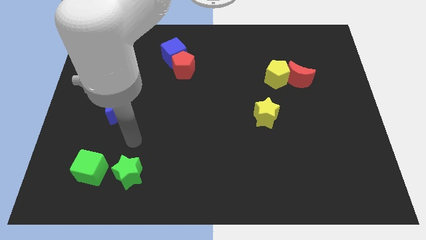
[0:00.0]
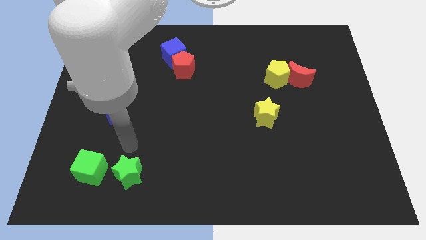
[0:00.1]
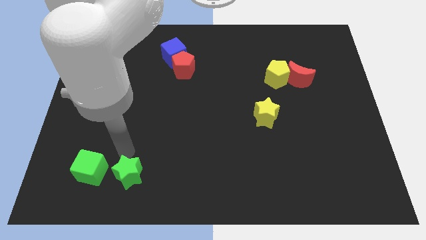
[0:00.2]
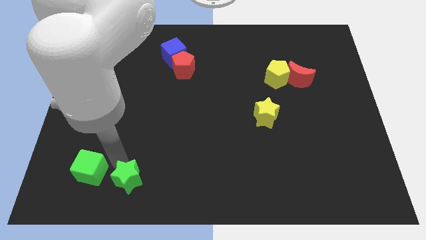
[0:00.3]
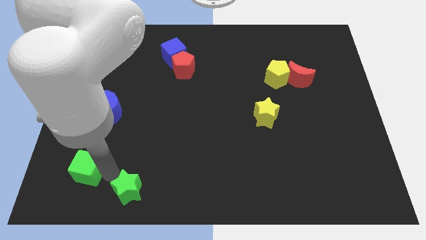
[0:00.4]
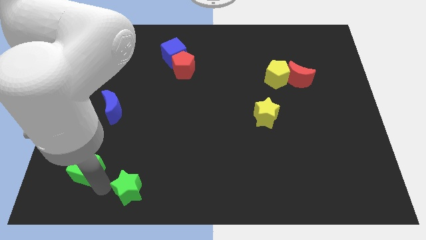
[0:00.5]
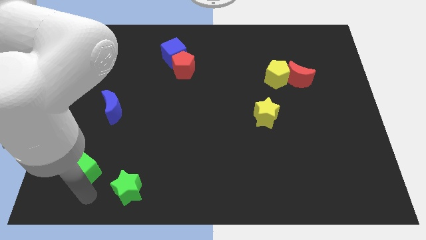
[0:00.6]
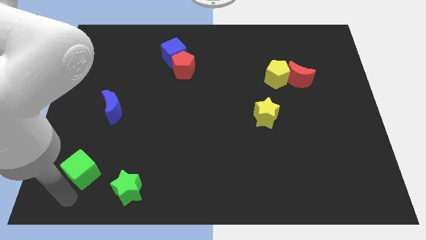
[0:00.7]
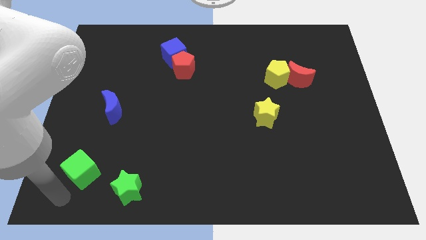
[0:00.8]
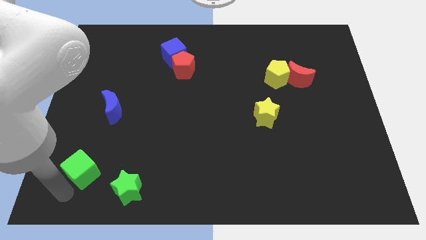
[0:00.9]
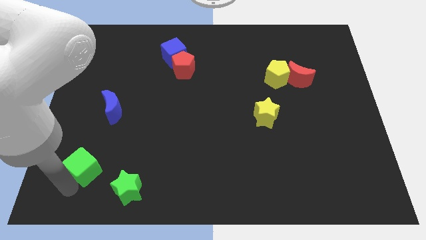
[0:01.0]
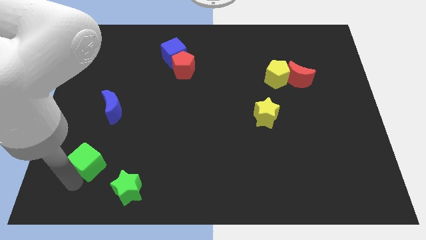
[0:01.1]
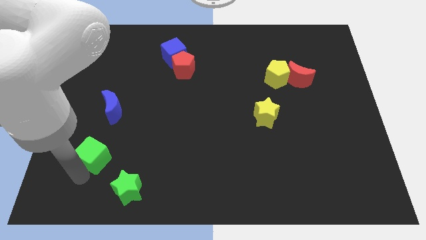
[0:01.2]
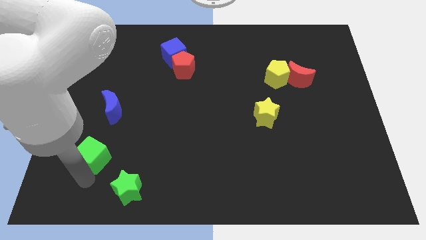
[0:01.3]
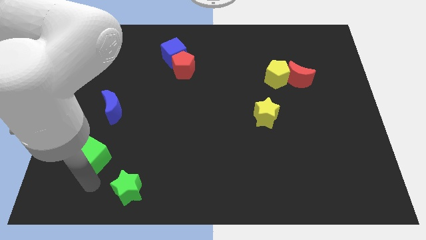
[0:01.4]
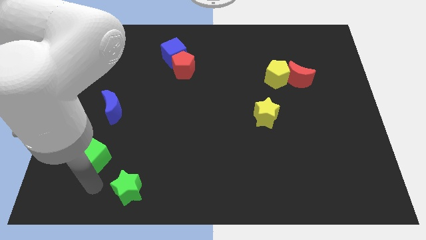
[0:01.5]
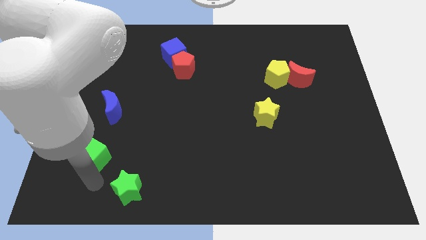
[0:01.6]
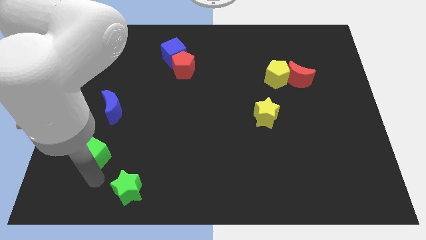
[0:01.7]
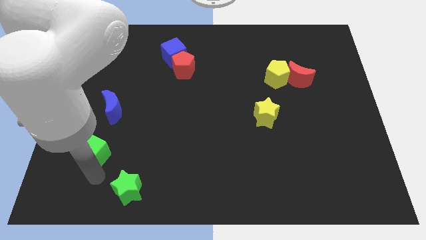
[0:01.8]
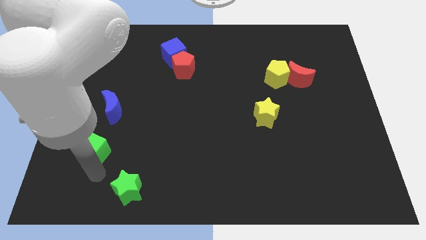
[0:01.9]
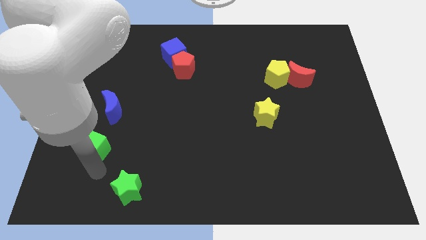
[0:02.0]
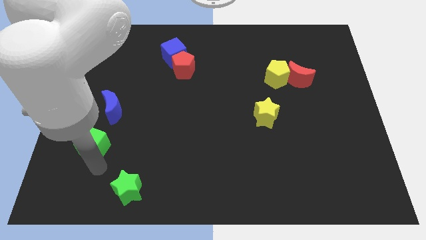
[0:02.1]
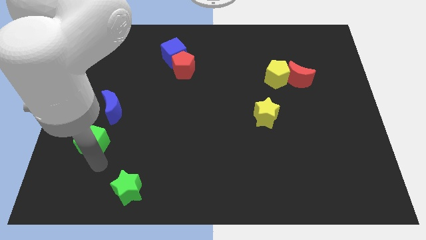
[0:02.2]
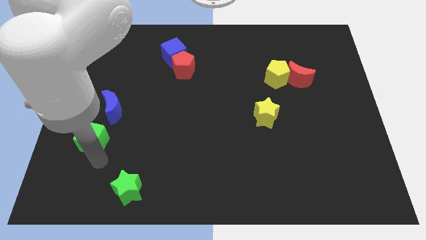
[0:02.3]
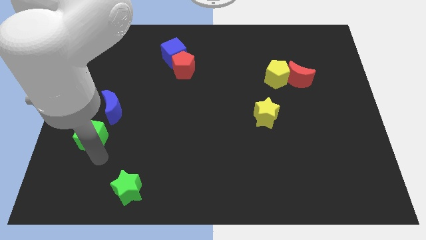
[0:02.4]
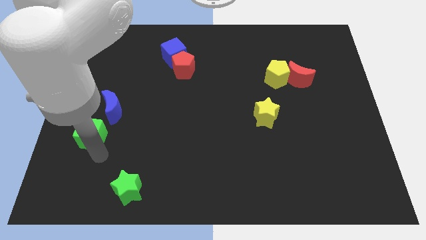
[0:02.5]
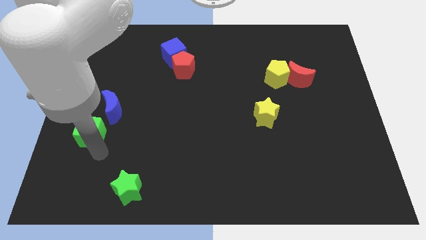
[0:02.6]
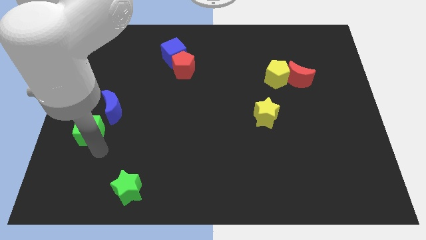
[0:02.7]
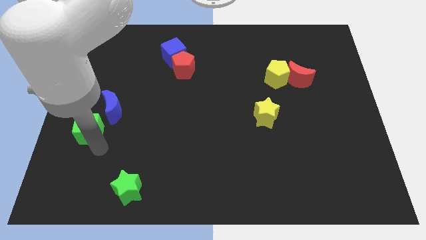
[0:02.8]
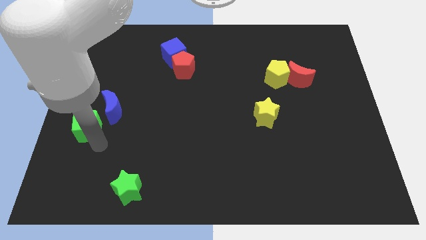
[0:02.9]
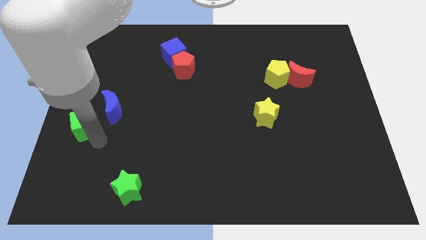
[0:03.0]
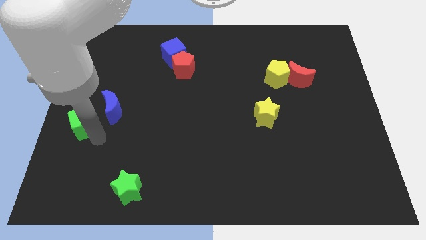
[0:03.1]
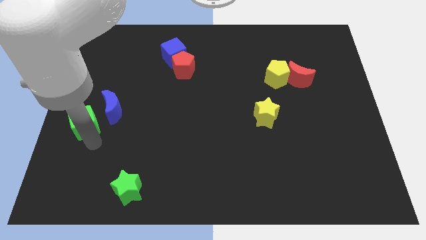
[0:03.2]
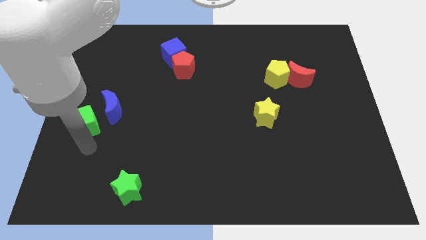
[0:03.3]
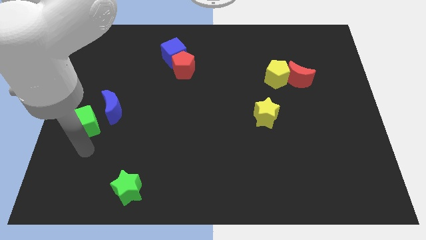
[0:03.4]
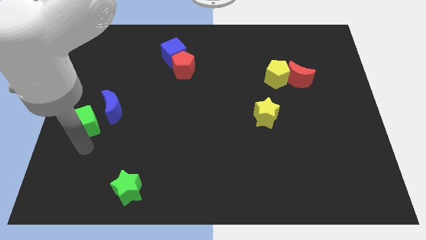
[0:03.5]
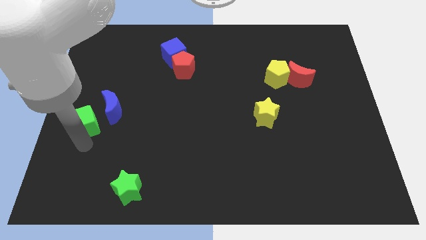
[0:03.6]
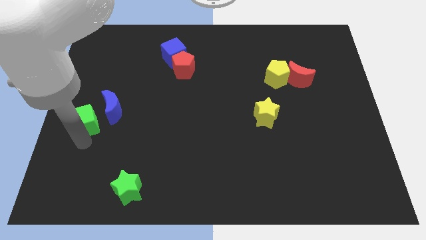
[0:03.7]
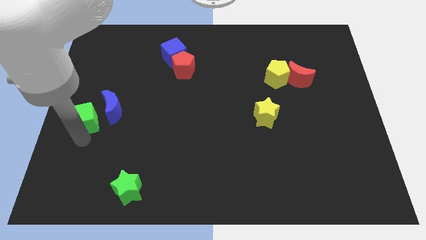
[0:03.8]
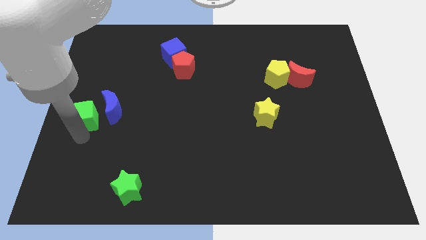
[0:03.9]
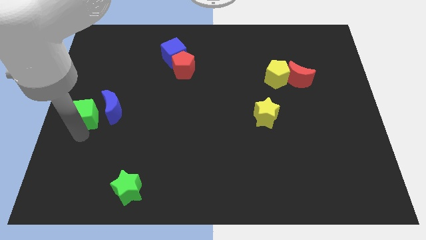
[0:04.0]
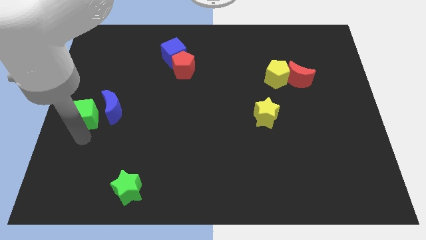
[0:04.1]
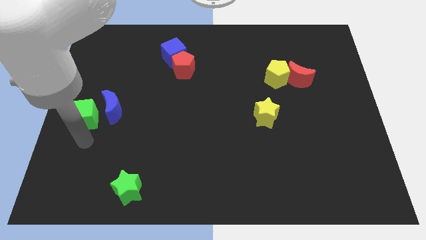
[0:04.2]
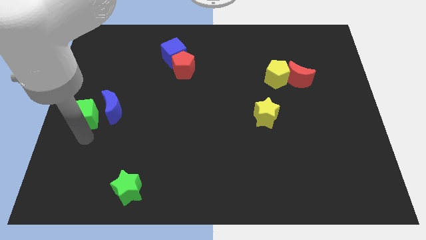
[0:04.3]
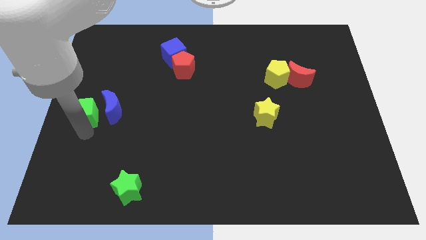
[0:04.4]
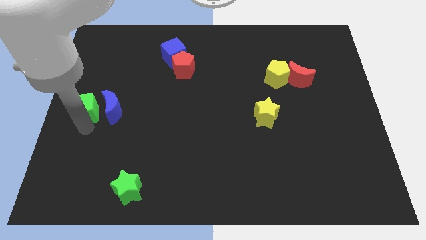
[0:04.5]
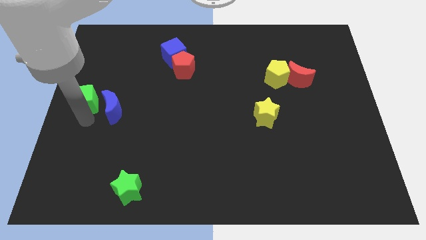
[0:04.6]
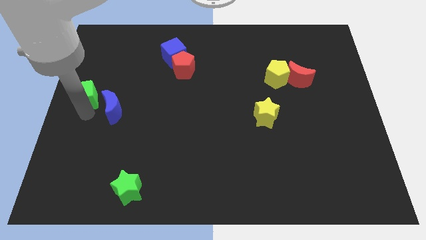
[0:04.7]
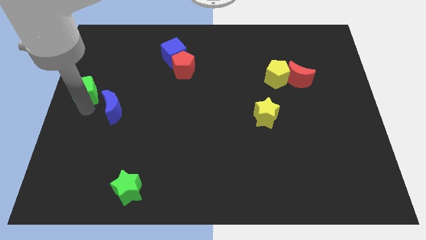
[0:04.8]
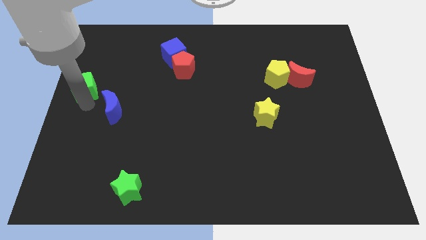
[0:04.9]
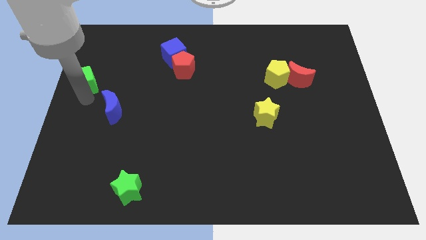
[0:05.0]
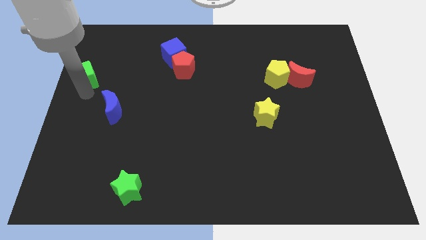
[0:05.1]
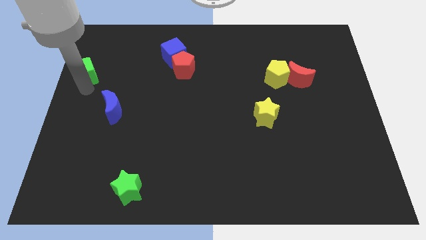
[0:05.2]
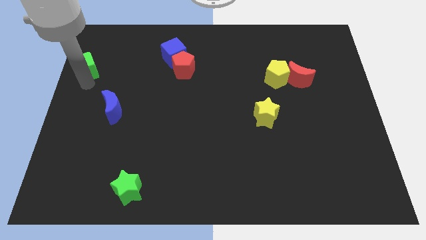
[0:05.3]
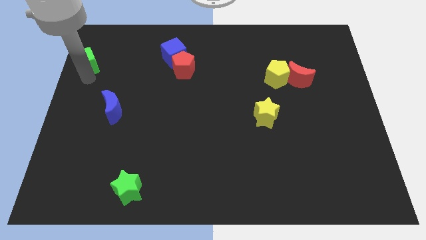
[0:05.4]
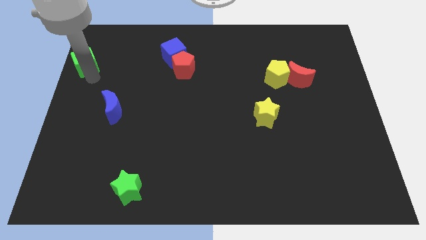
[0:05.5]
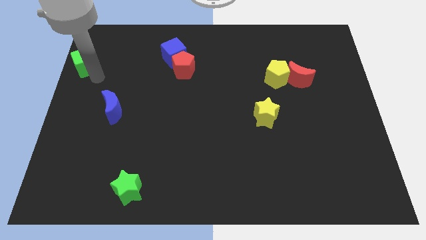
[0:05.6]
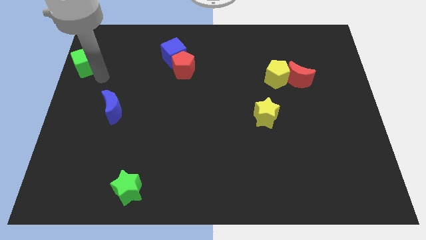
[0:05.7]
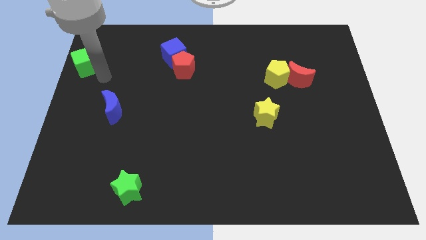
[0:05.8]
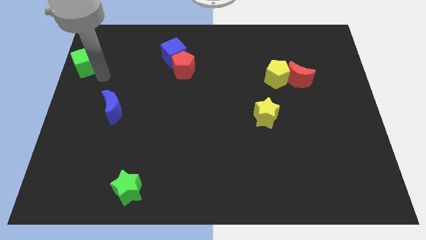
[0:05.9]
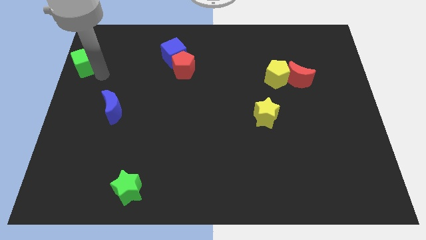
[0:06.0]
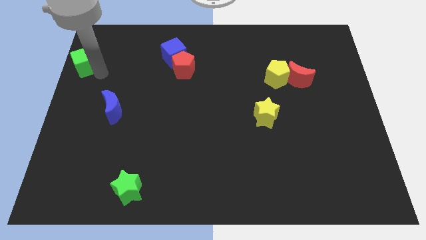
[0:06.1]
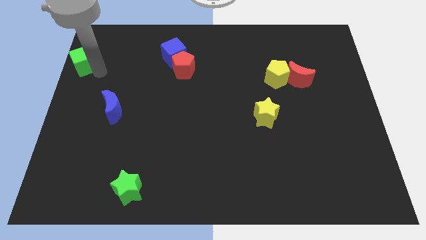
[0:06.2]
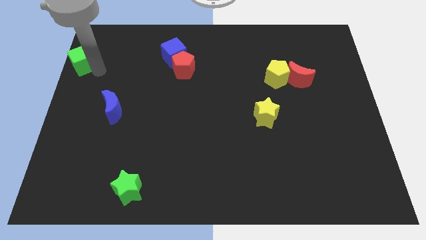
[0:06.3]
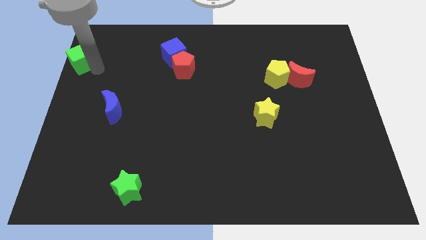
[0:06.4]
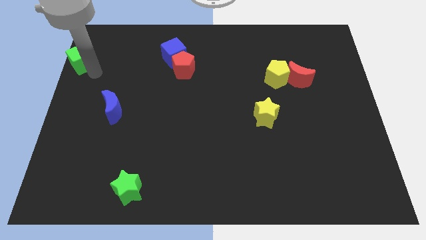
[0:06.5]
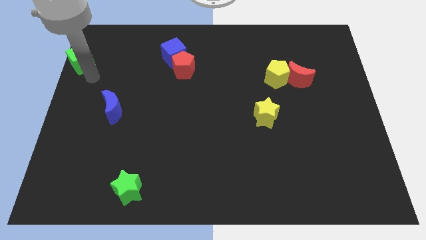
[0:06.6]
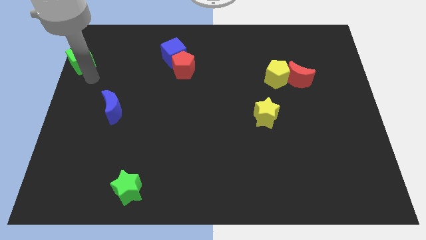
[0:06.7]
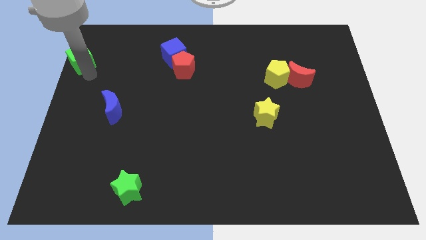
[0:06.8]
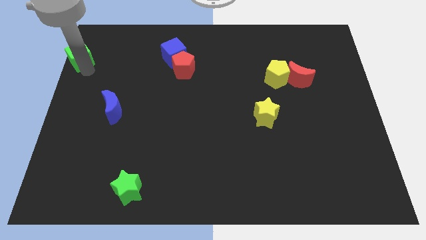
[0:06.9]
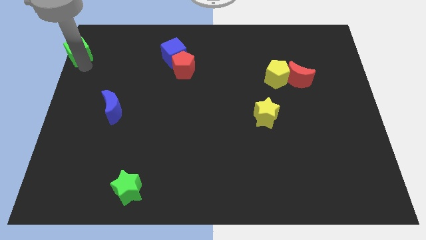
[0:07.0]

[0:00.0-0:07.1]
push the green cube to the top left of the board
